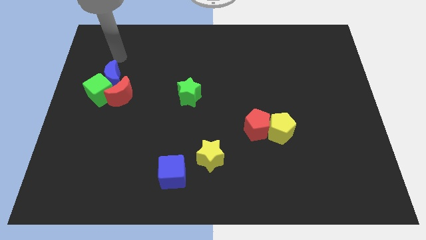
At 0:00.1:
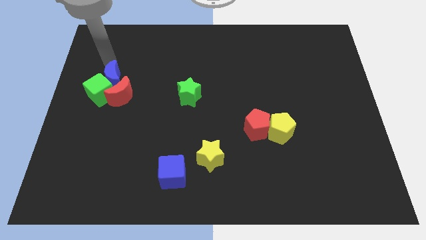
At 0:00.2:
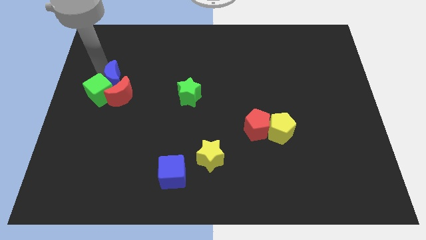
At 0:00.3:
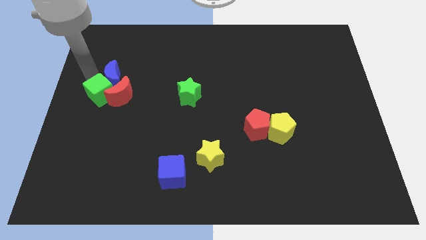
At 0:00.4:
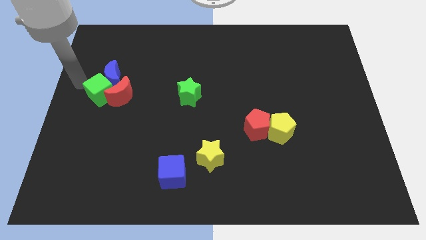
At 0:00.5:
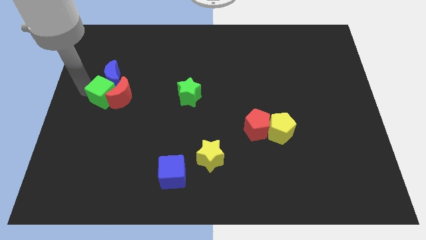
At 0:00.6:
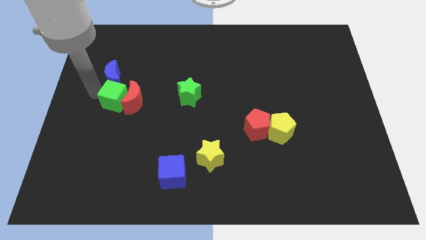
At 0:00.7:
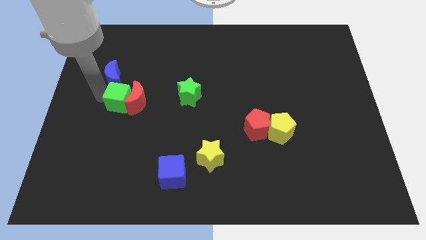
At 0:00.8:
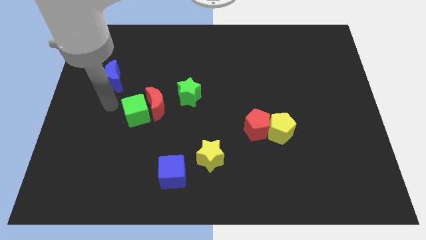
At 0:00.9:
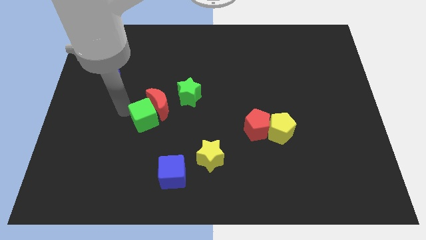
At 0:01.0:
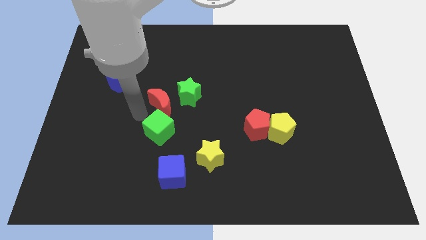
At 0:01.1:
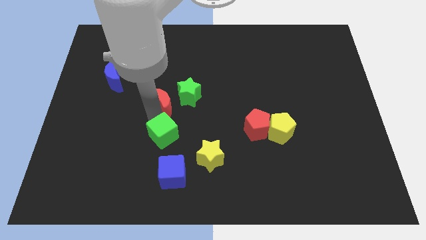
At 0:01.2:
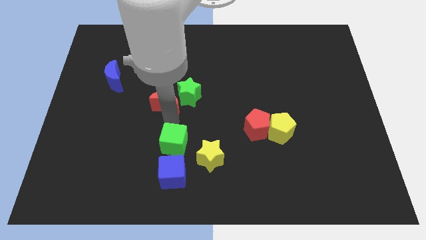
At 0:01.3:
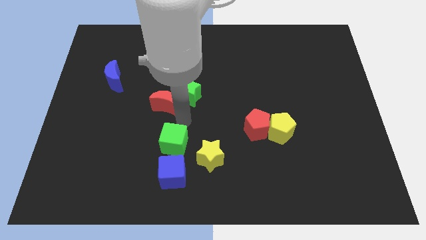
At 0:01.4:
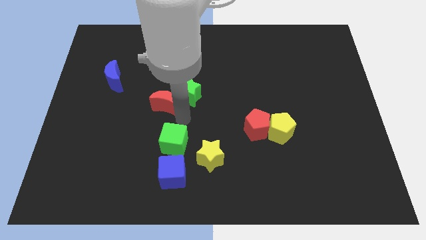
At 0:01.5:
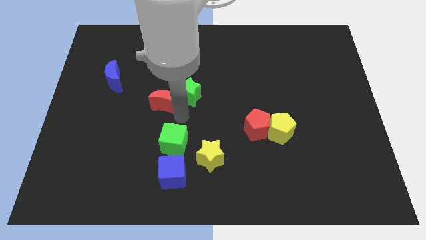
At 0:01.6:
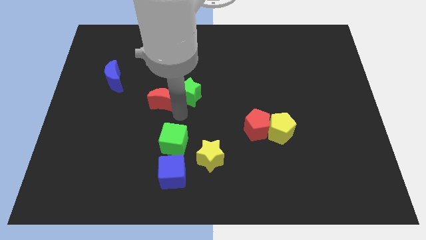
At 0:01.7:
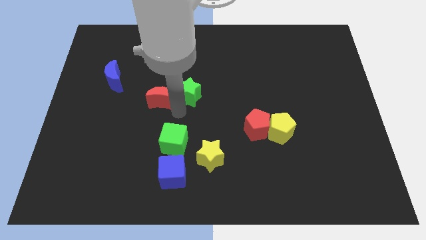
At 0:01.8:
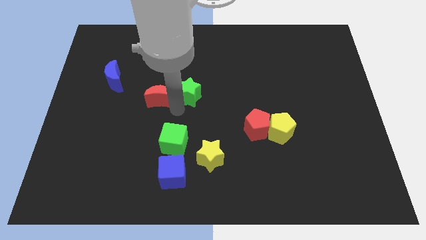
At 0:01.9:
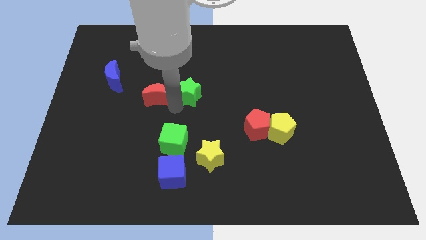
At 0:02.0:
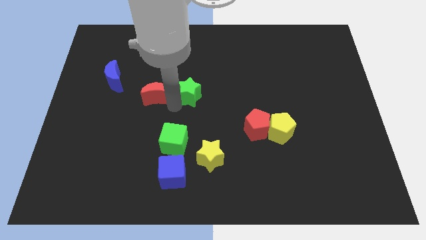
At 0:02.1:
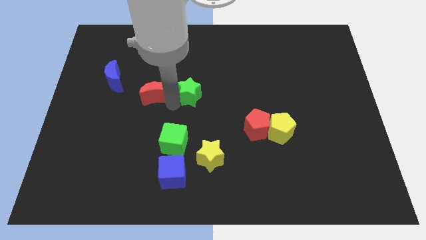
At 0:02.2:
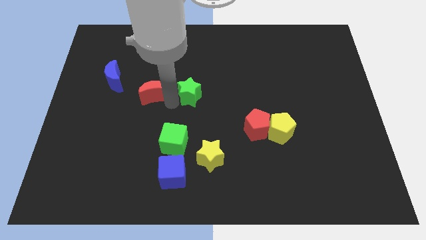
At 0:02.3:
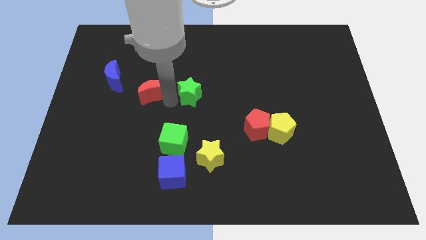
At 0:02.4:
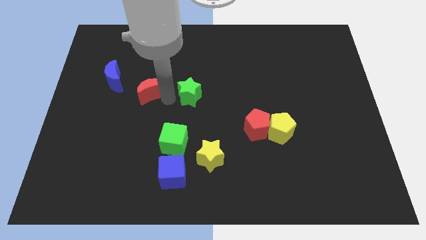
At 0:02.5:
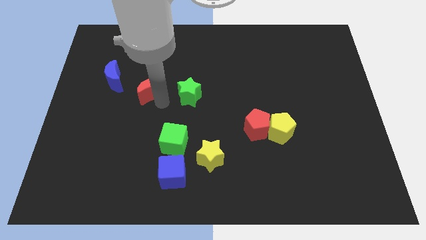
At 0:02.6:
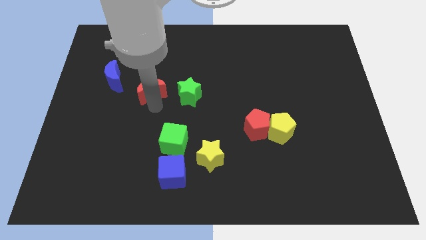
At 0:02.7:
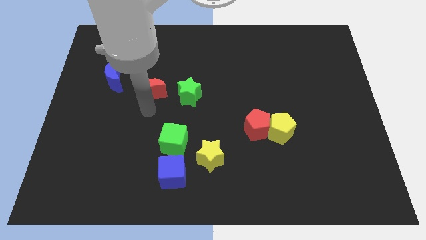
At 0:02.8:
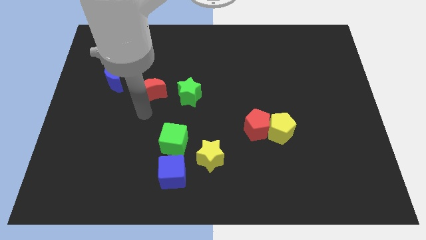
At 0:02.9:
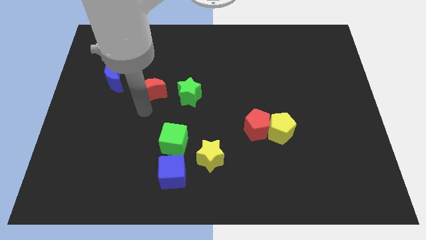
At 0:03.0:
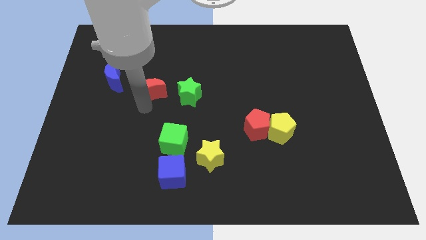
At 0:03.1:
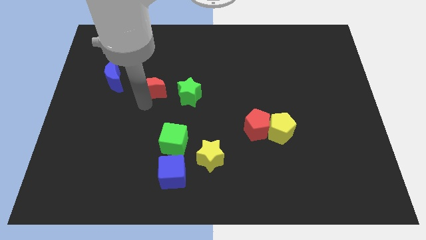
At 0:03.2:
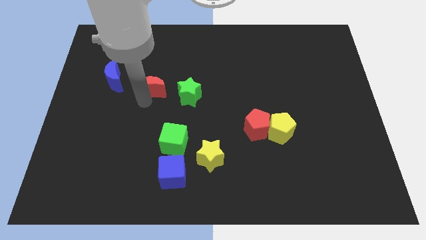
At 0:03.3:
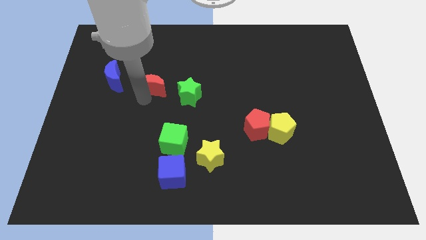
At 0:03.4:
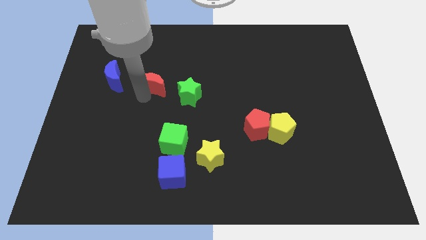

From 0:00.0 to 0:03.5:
slightly push the red moon up and to the right diagonally

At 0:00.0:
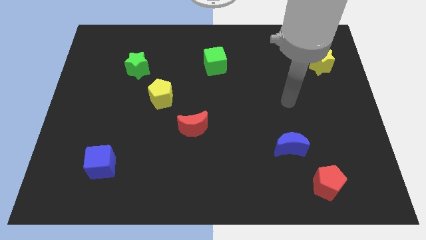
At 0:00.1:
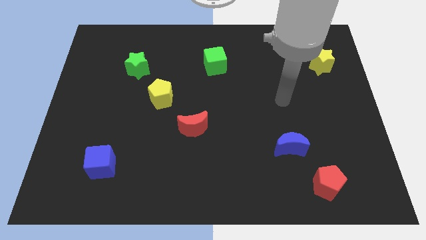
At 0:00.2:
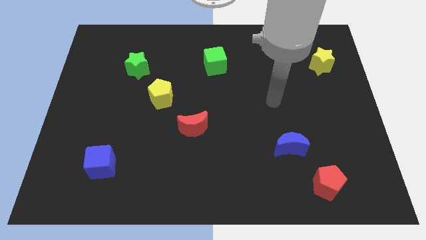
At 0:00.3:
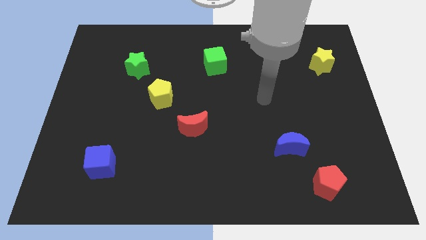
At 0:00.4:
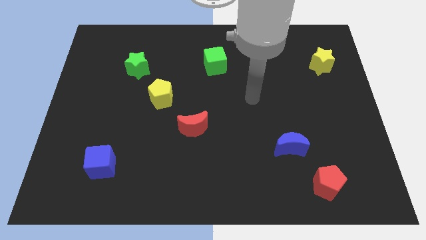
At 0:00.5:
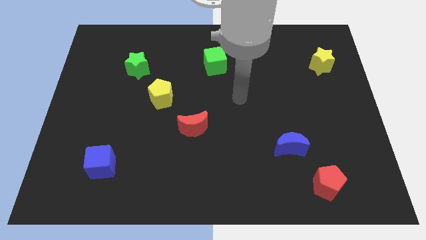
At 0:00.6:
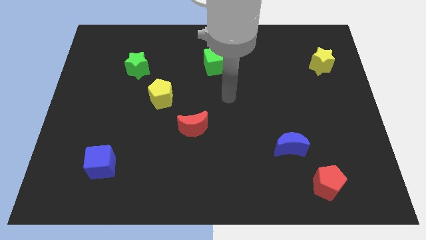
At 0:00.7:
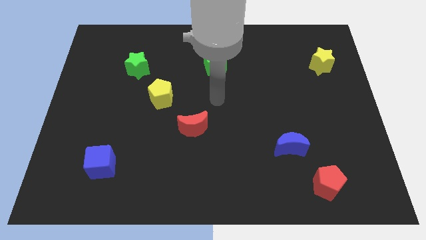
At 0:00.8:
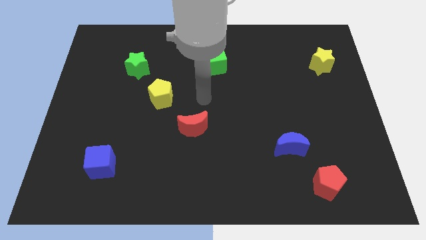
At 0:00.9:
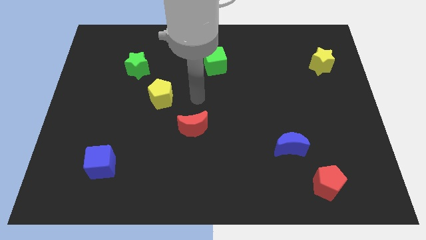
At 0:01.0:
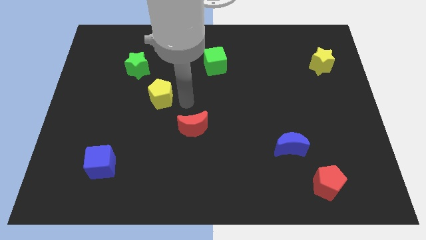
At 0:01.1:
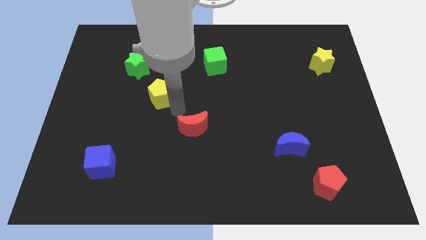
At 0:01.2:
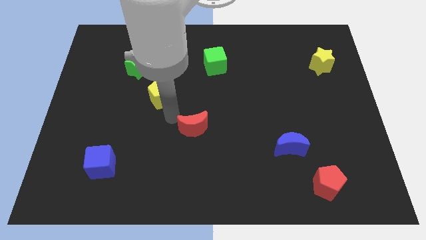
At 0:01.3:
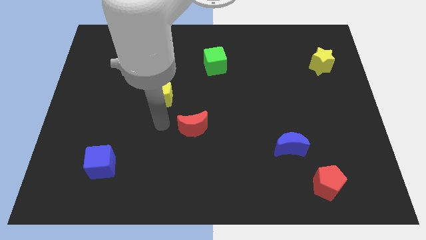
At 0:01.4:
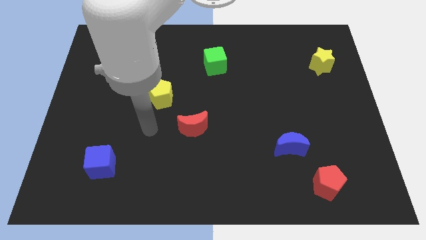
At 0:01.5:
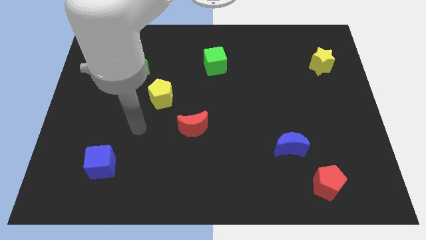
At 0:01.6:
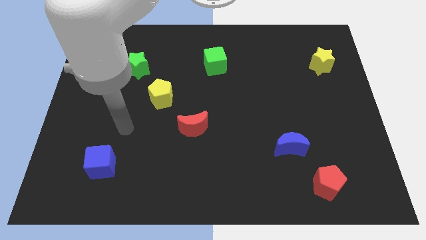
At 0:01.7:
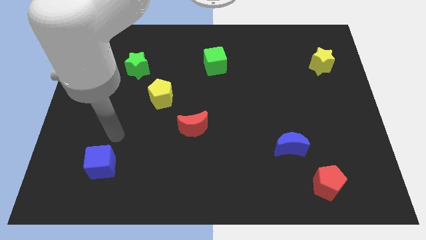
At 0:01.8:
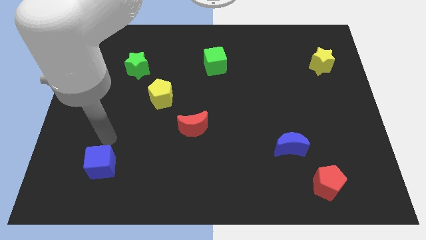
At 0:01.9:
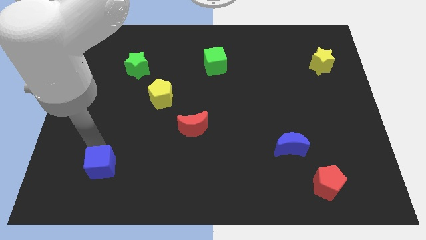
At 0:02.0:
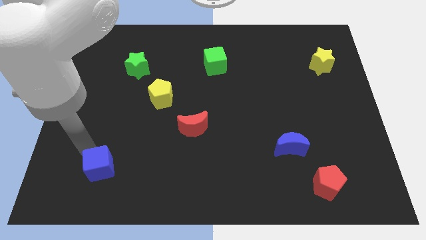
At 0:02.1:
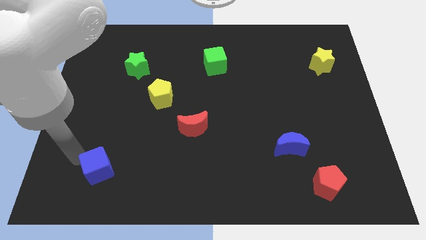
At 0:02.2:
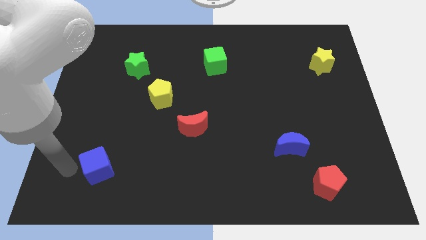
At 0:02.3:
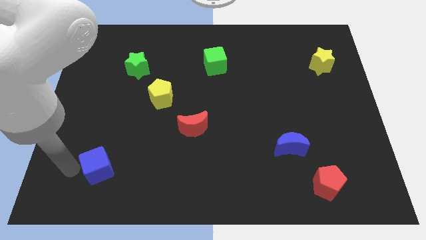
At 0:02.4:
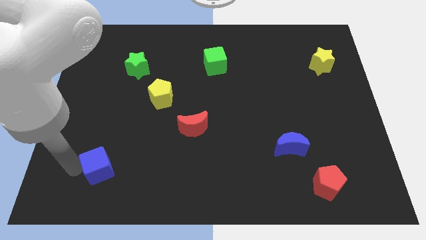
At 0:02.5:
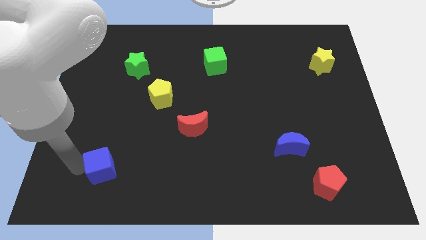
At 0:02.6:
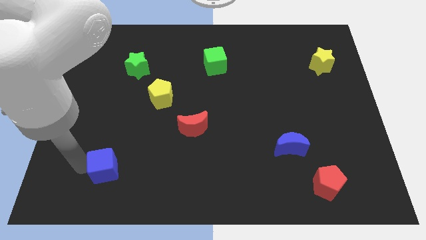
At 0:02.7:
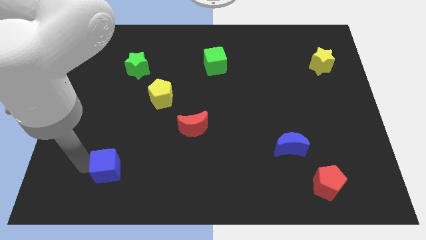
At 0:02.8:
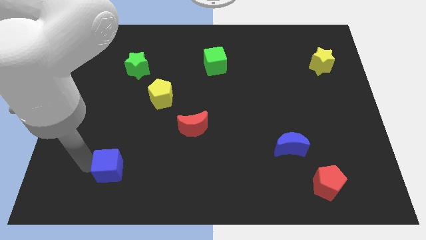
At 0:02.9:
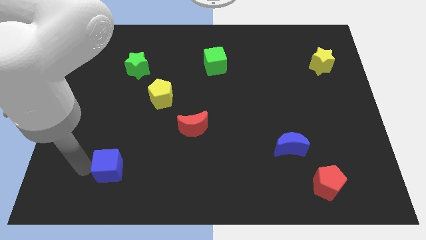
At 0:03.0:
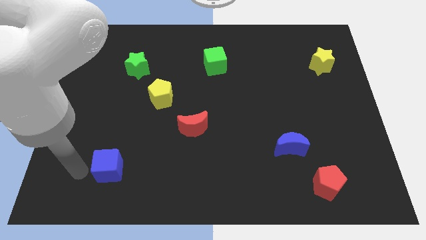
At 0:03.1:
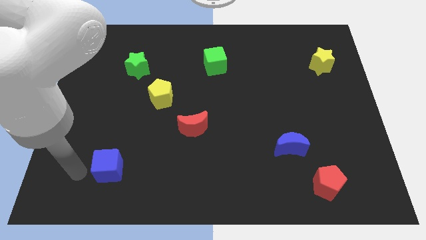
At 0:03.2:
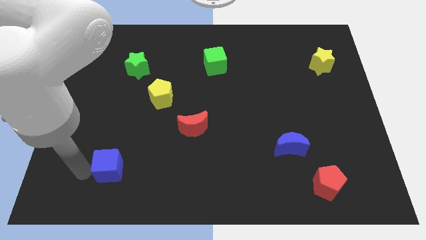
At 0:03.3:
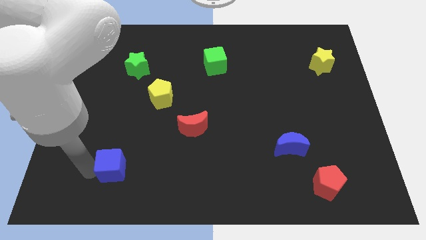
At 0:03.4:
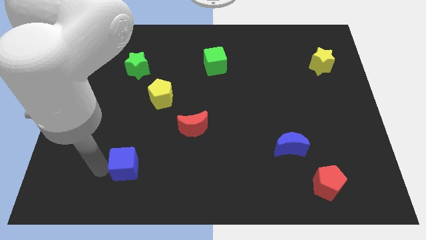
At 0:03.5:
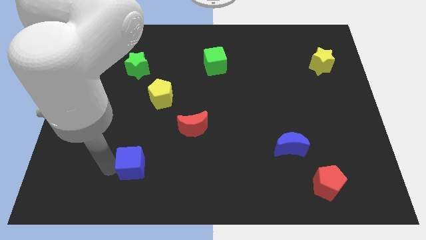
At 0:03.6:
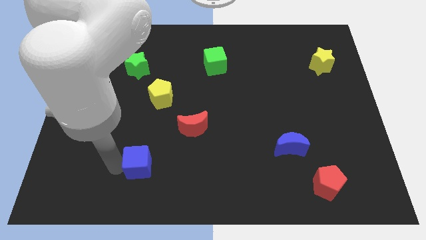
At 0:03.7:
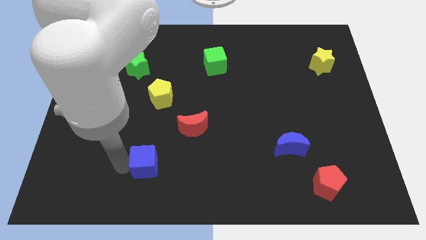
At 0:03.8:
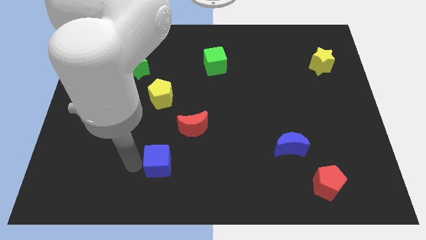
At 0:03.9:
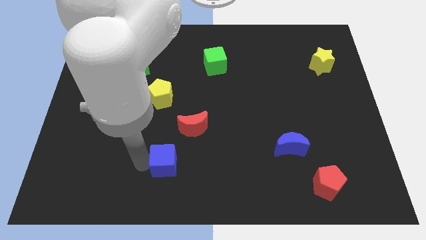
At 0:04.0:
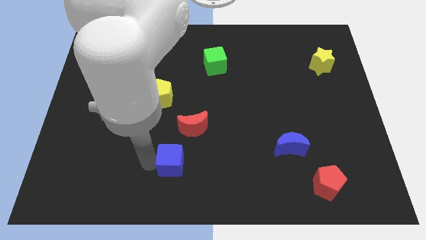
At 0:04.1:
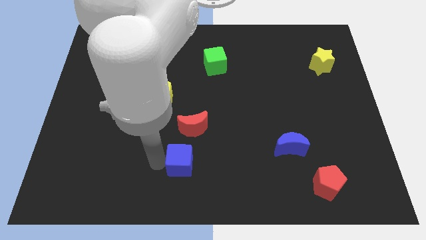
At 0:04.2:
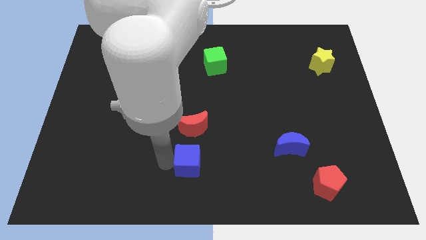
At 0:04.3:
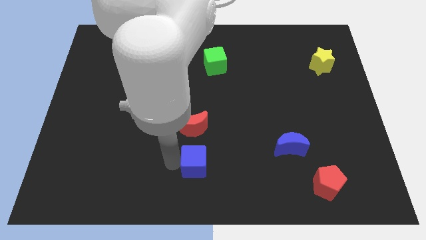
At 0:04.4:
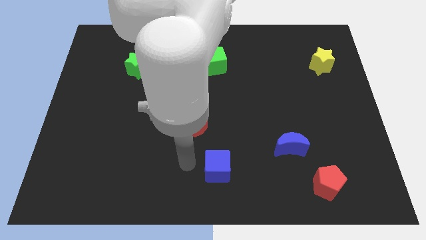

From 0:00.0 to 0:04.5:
move the blue cube to the right

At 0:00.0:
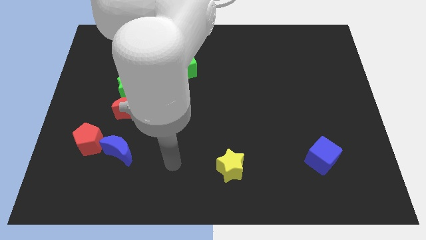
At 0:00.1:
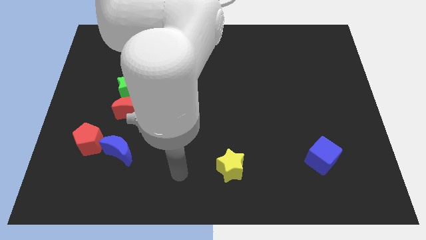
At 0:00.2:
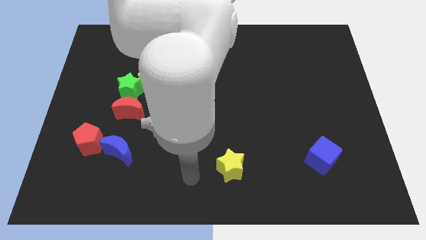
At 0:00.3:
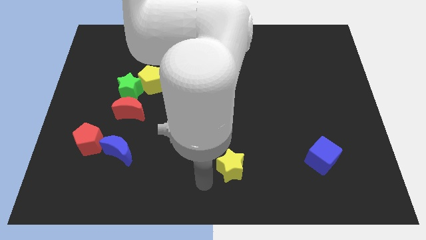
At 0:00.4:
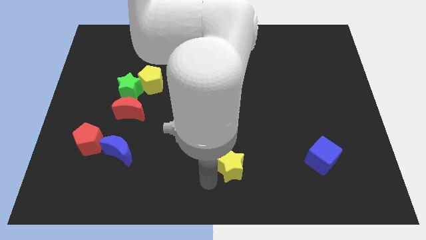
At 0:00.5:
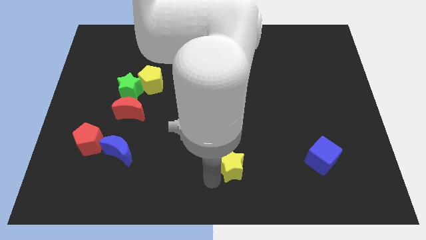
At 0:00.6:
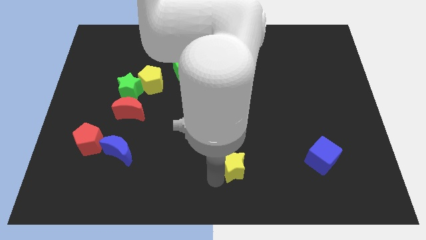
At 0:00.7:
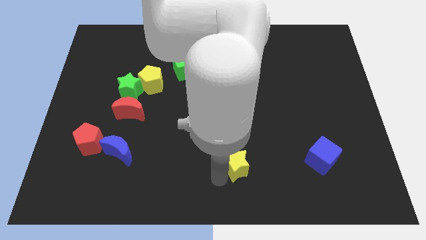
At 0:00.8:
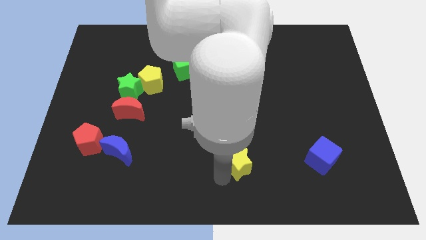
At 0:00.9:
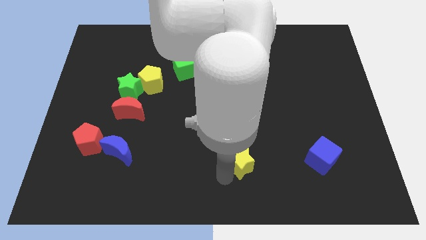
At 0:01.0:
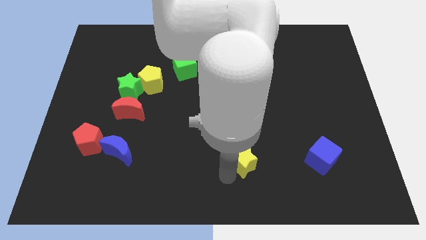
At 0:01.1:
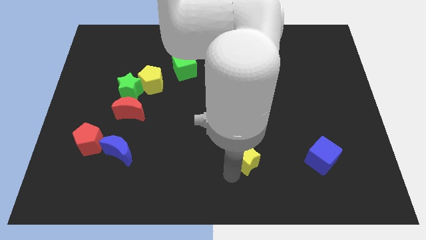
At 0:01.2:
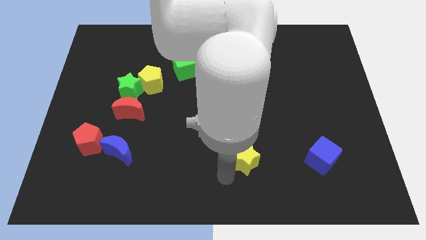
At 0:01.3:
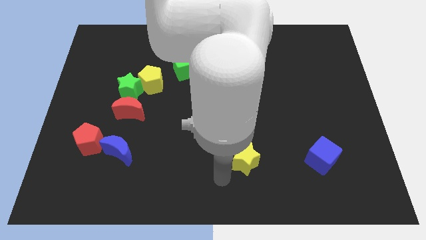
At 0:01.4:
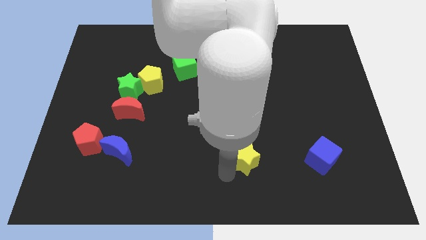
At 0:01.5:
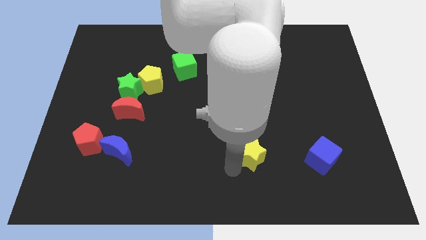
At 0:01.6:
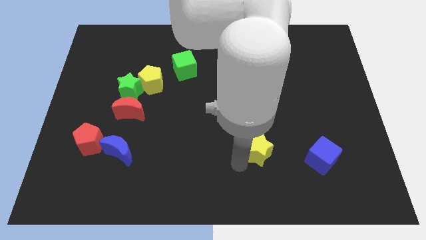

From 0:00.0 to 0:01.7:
slightly push the yellow star upwards and then to the right
